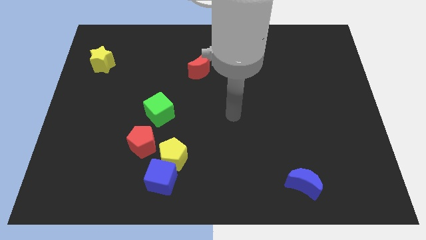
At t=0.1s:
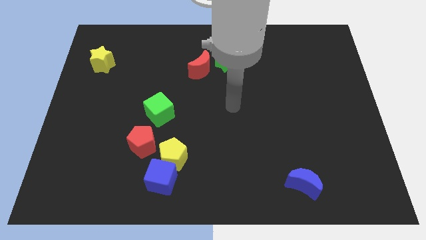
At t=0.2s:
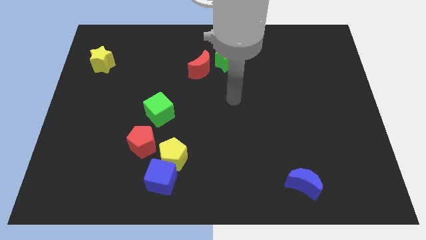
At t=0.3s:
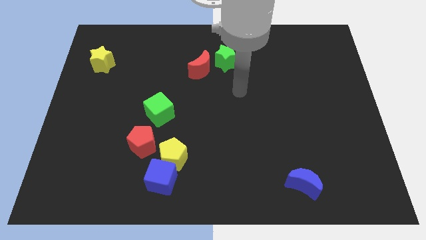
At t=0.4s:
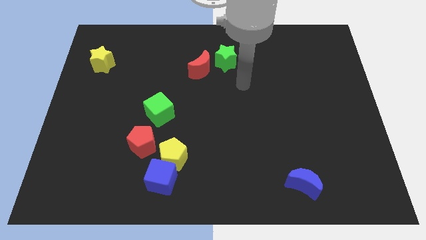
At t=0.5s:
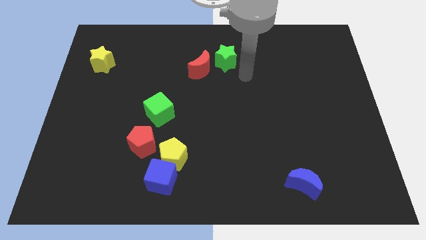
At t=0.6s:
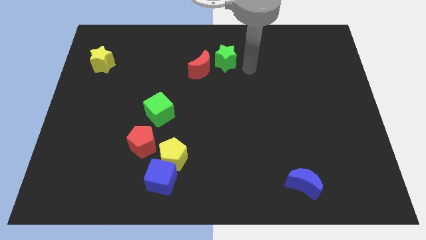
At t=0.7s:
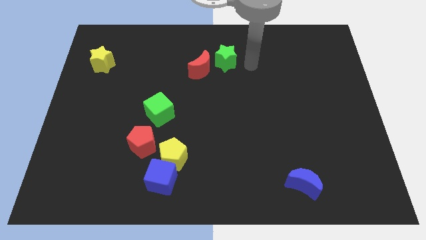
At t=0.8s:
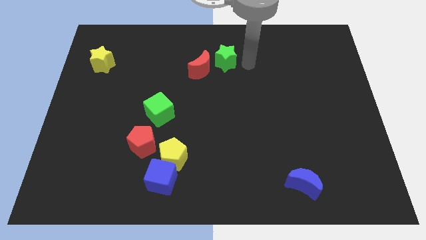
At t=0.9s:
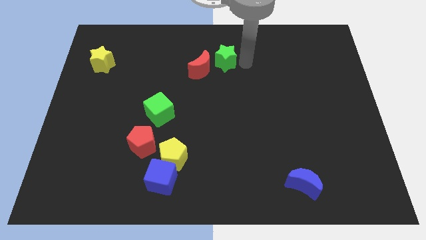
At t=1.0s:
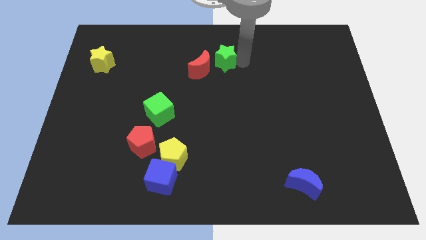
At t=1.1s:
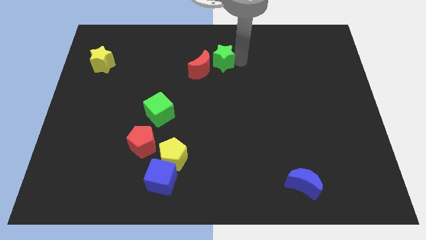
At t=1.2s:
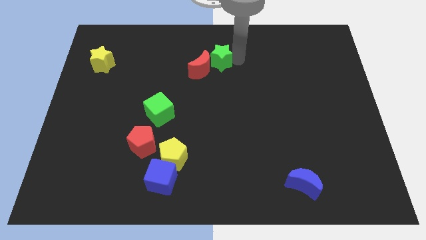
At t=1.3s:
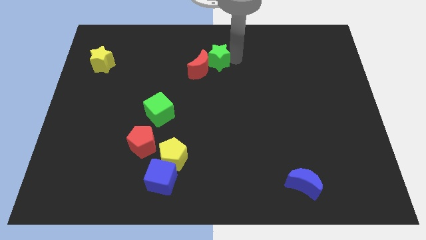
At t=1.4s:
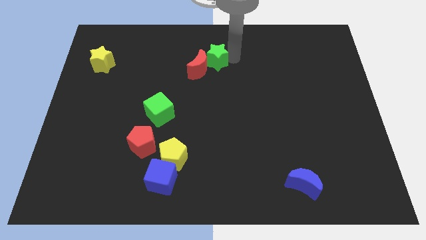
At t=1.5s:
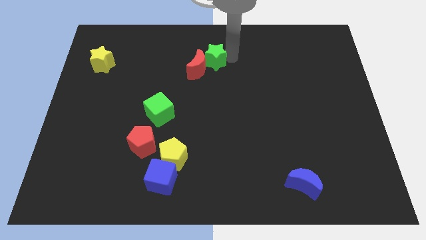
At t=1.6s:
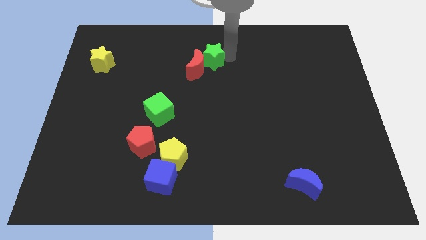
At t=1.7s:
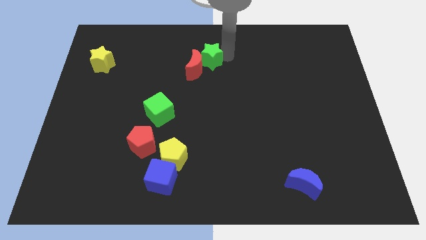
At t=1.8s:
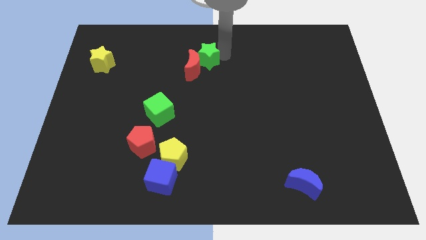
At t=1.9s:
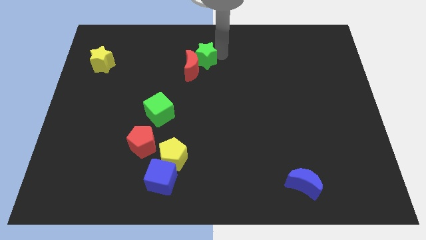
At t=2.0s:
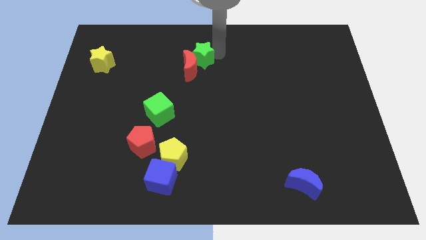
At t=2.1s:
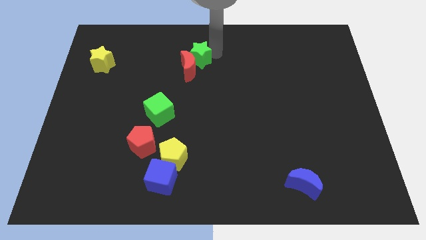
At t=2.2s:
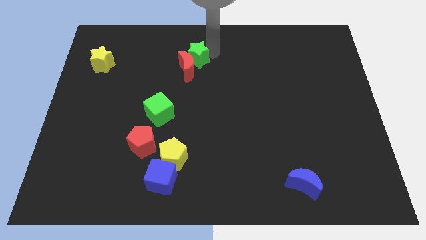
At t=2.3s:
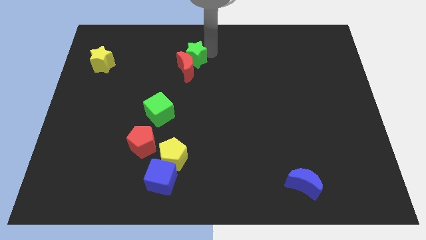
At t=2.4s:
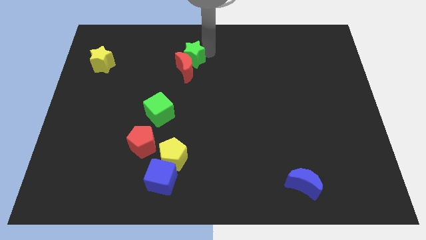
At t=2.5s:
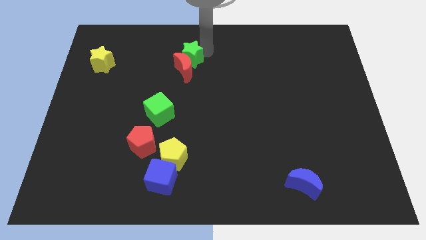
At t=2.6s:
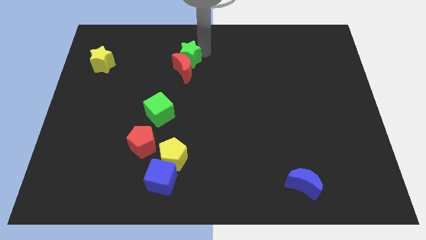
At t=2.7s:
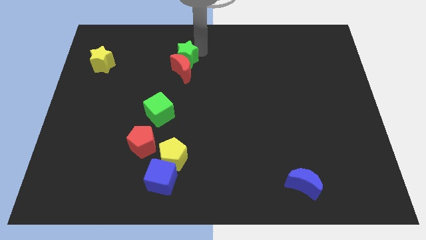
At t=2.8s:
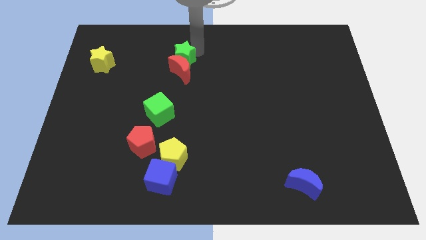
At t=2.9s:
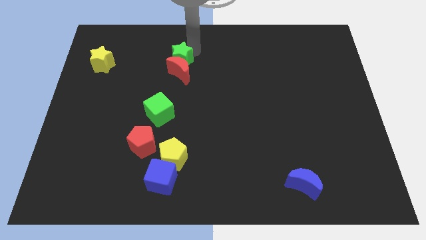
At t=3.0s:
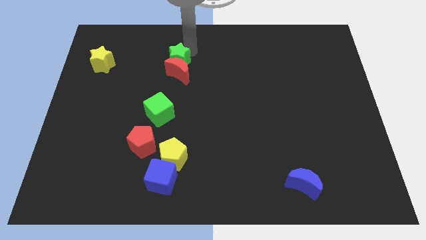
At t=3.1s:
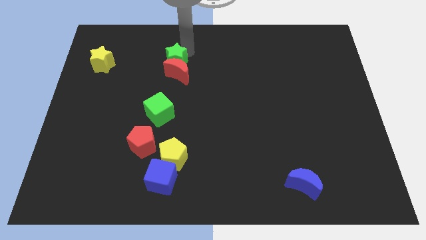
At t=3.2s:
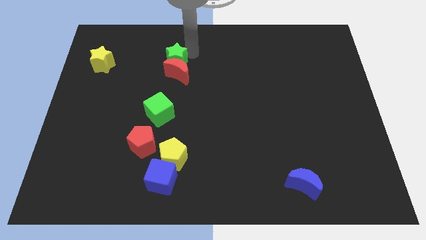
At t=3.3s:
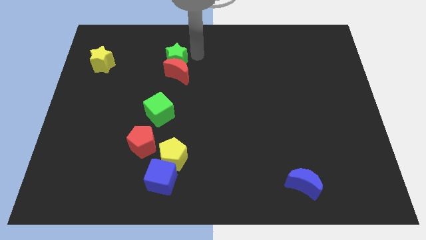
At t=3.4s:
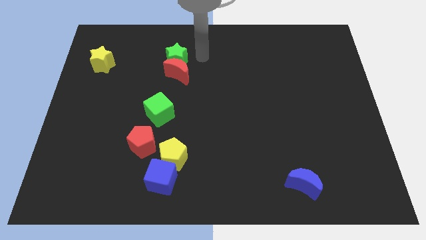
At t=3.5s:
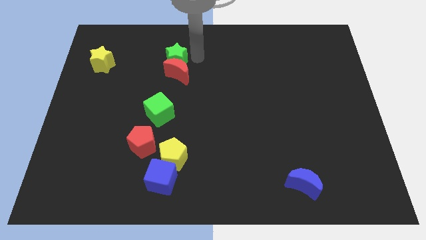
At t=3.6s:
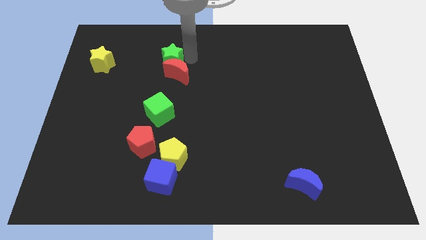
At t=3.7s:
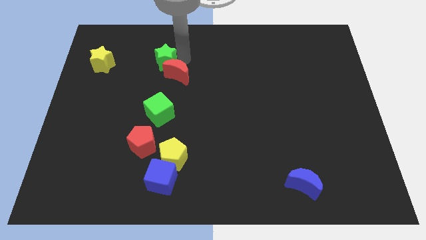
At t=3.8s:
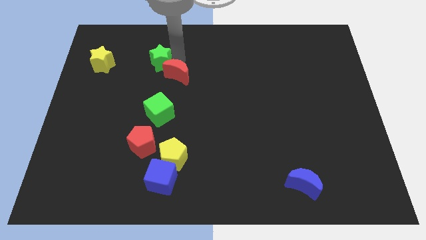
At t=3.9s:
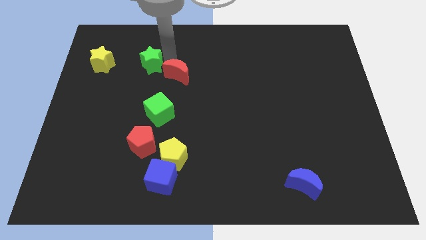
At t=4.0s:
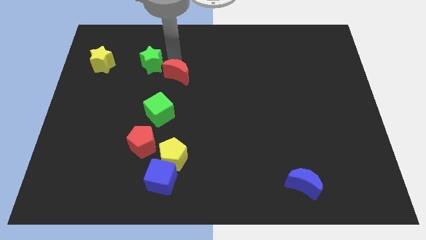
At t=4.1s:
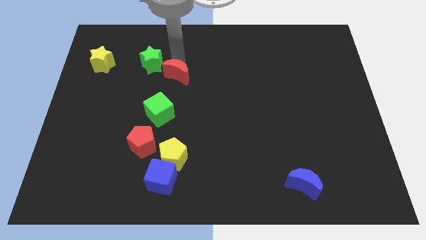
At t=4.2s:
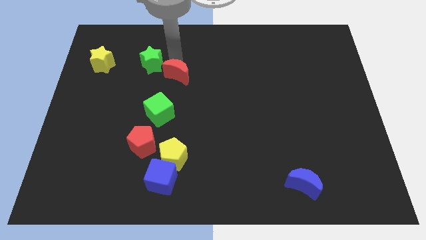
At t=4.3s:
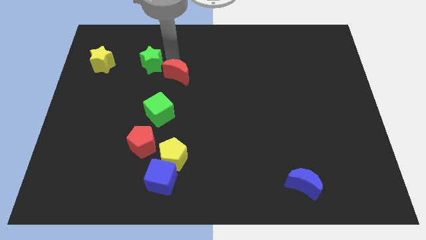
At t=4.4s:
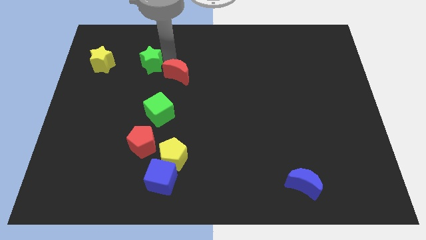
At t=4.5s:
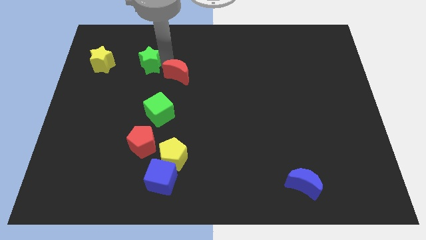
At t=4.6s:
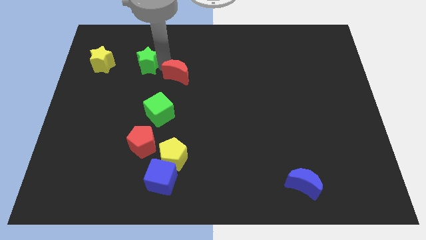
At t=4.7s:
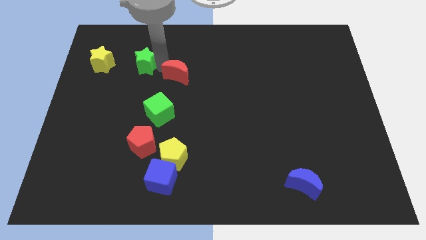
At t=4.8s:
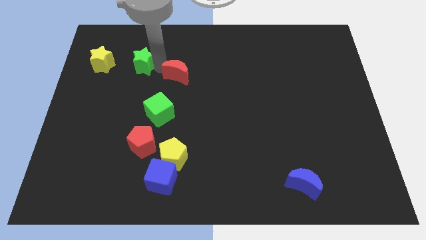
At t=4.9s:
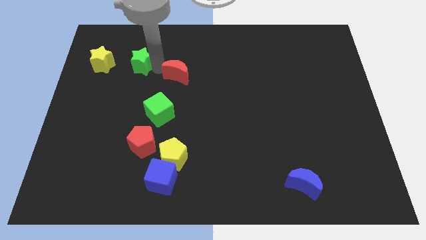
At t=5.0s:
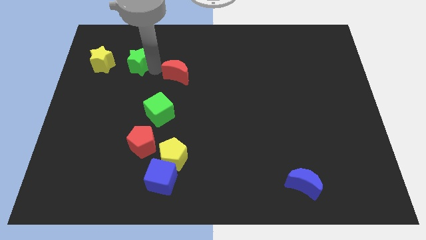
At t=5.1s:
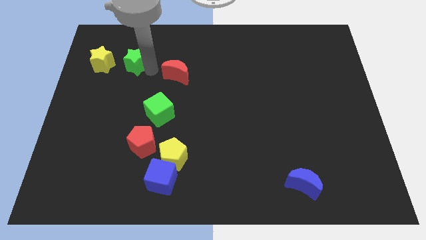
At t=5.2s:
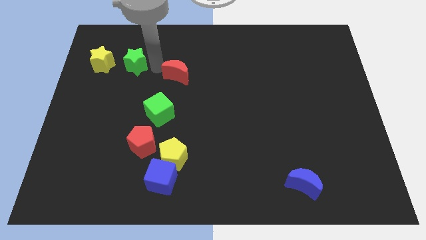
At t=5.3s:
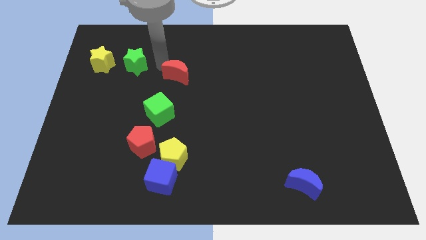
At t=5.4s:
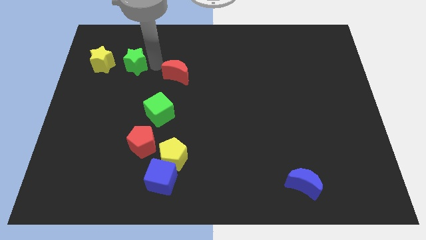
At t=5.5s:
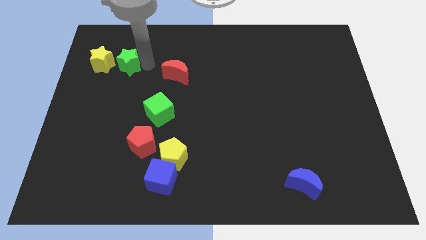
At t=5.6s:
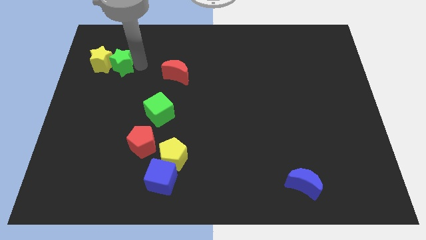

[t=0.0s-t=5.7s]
push the green star to the yellow star

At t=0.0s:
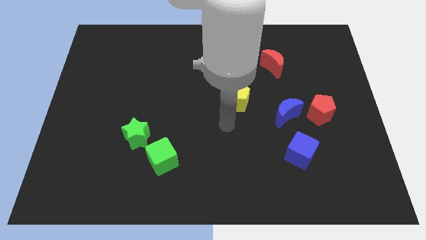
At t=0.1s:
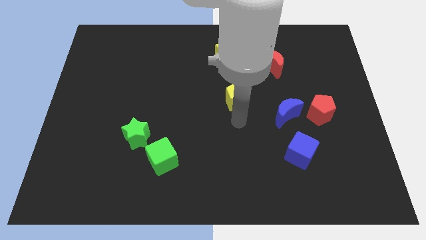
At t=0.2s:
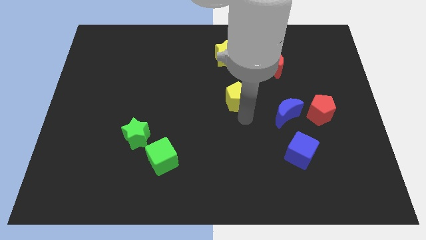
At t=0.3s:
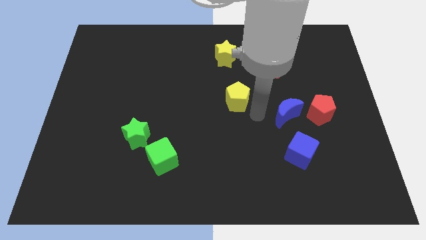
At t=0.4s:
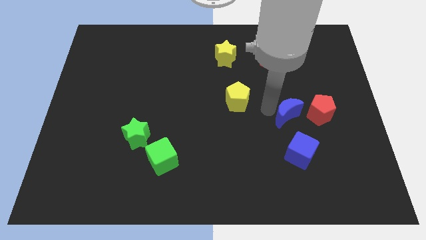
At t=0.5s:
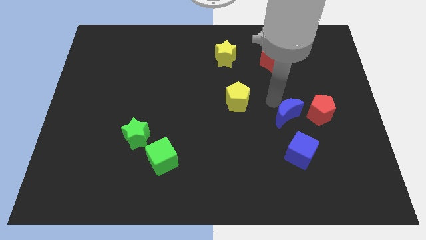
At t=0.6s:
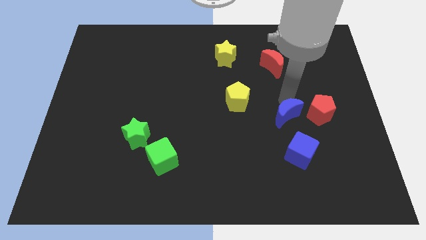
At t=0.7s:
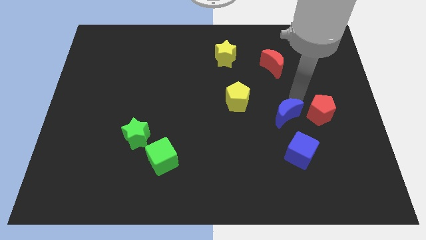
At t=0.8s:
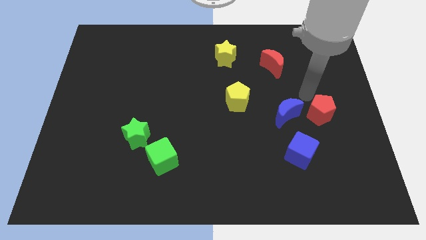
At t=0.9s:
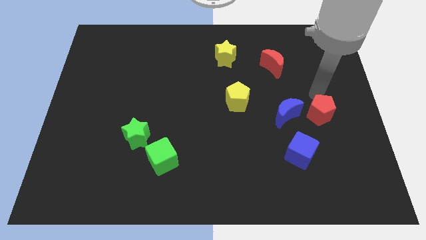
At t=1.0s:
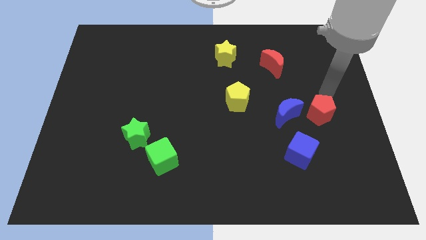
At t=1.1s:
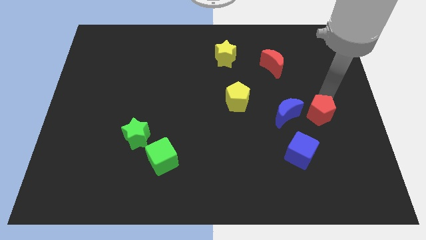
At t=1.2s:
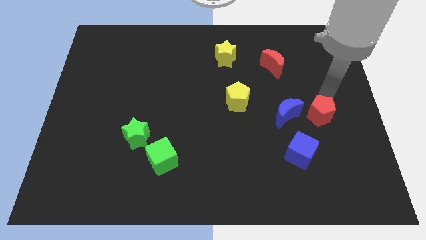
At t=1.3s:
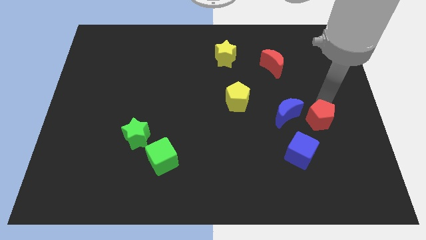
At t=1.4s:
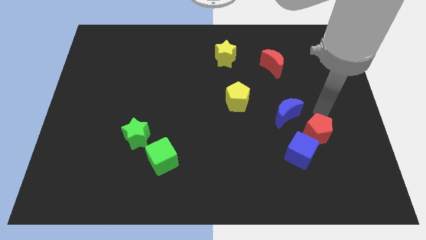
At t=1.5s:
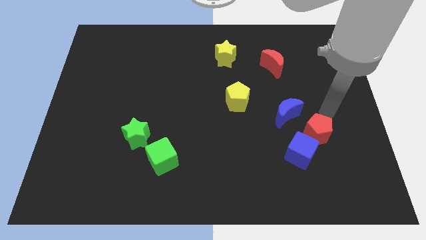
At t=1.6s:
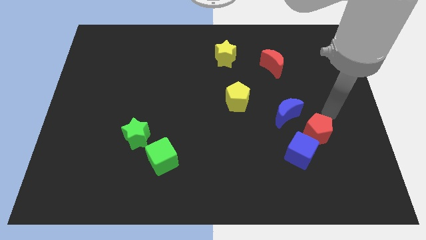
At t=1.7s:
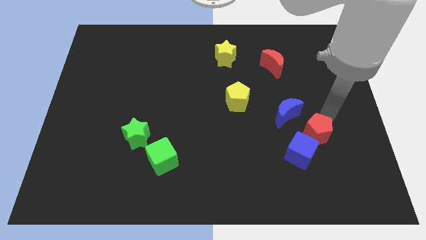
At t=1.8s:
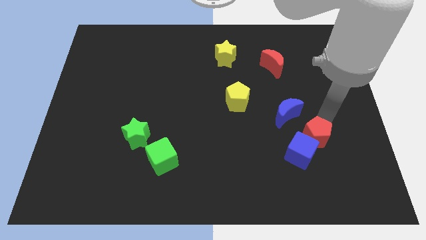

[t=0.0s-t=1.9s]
move the red pentagon close to the blue cube

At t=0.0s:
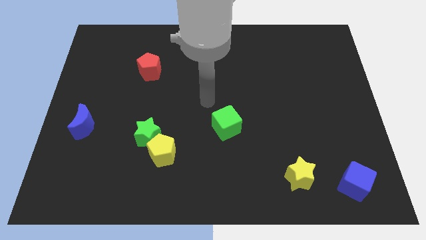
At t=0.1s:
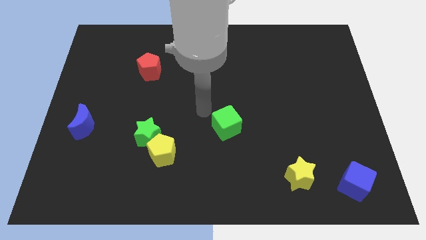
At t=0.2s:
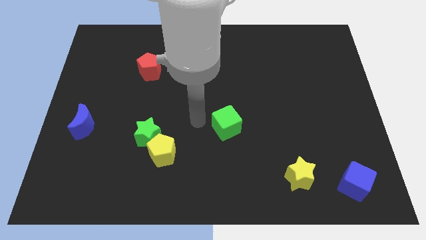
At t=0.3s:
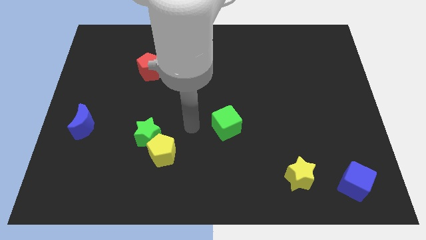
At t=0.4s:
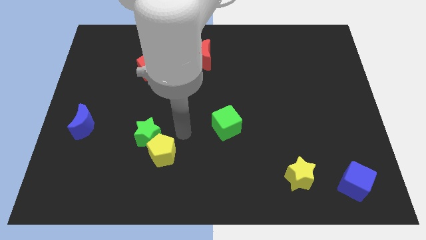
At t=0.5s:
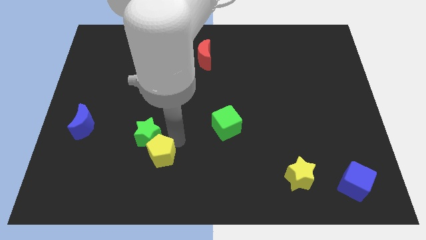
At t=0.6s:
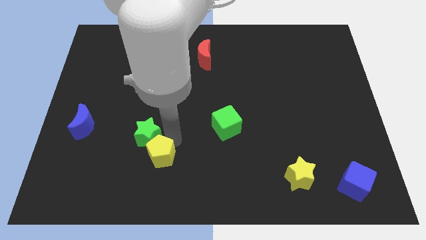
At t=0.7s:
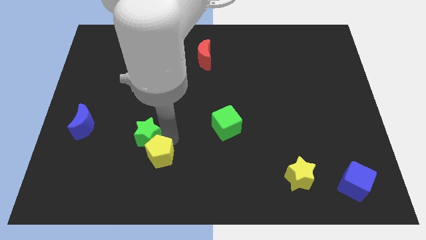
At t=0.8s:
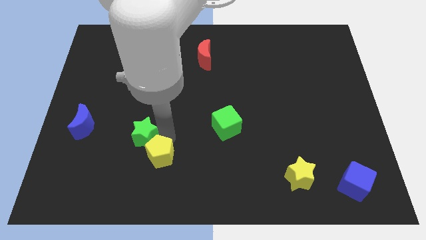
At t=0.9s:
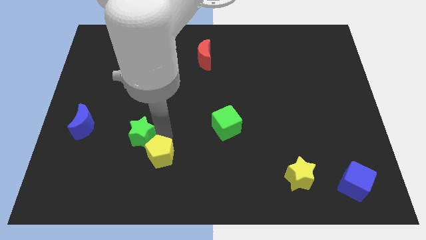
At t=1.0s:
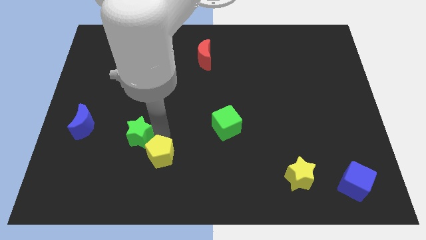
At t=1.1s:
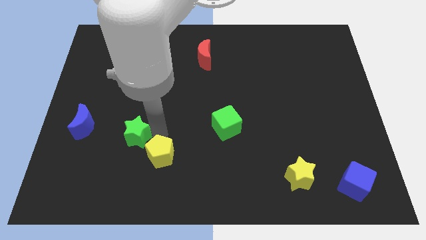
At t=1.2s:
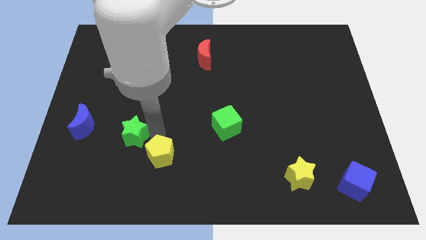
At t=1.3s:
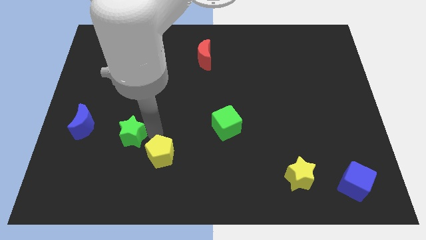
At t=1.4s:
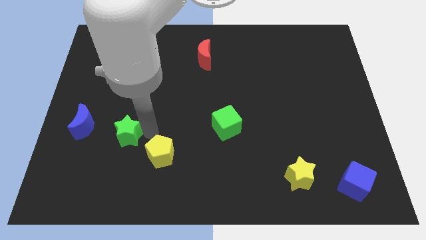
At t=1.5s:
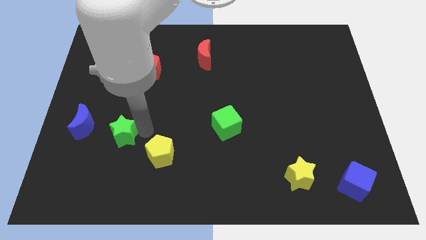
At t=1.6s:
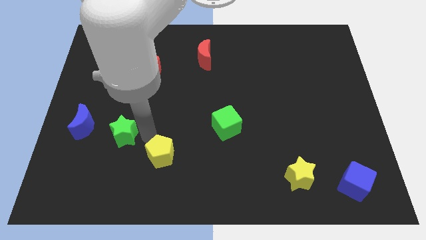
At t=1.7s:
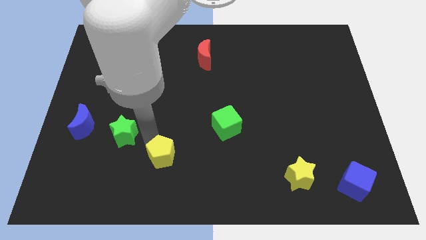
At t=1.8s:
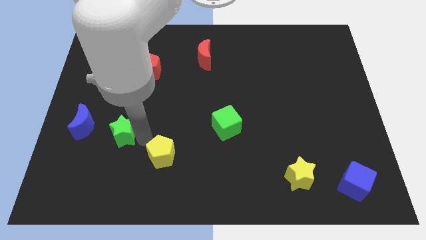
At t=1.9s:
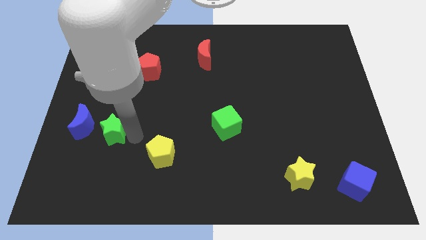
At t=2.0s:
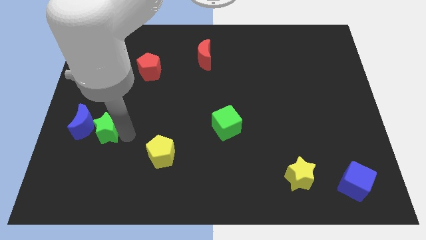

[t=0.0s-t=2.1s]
put the green star close to the blue moon
